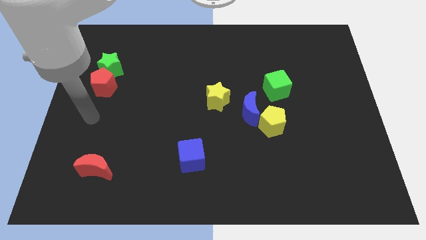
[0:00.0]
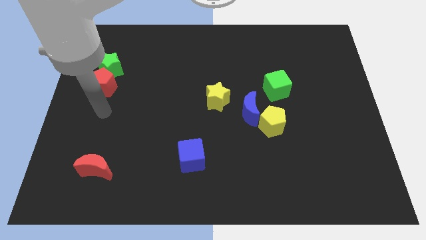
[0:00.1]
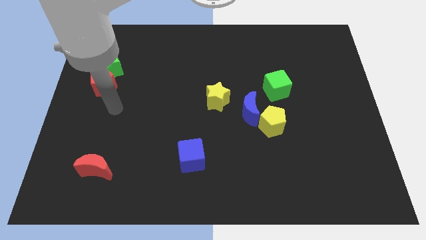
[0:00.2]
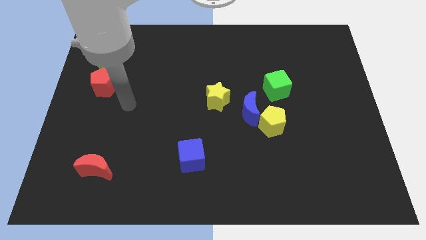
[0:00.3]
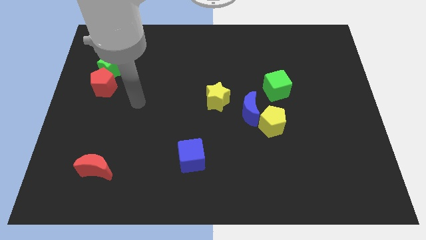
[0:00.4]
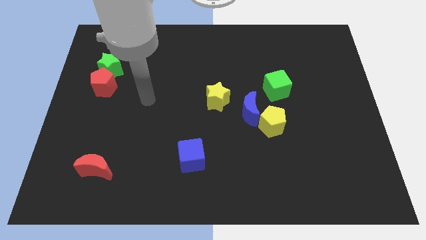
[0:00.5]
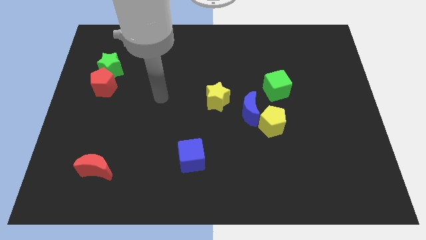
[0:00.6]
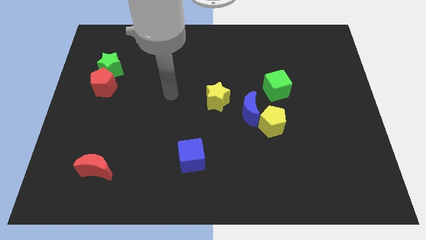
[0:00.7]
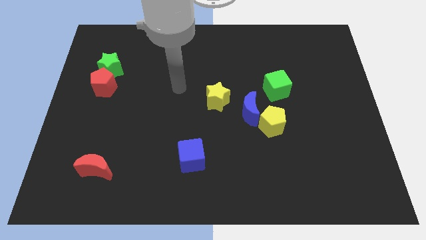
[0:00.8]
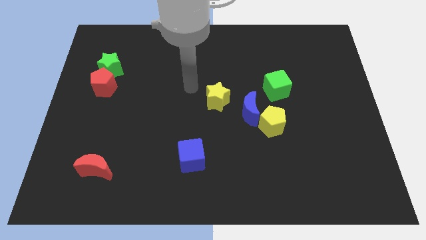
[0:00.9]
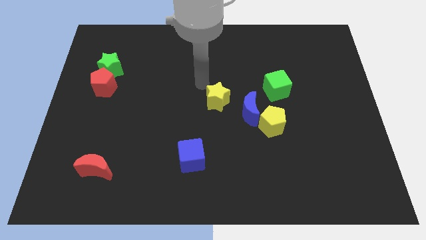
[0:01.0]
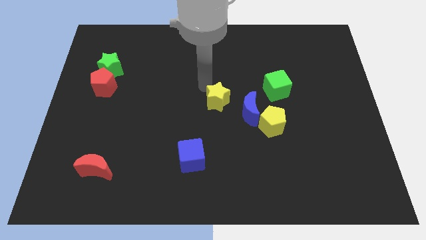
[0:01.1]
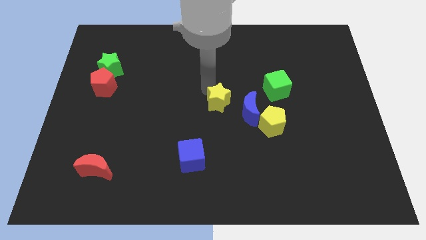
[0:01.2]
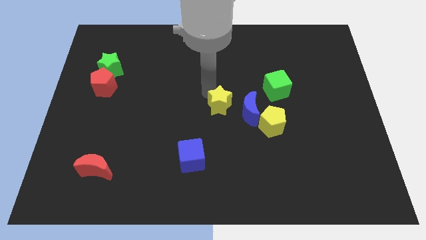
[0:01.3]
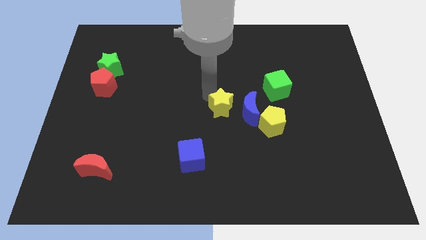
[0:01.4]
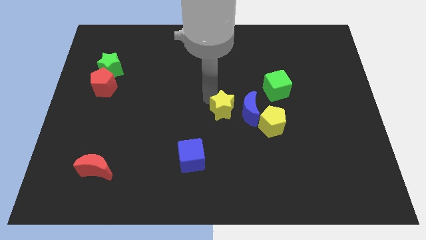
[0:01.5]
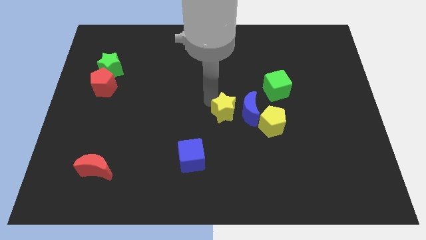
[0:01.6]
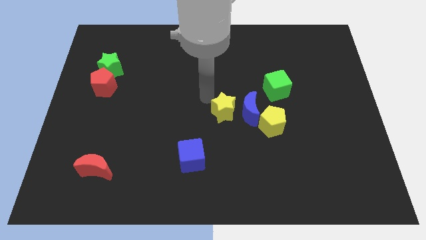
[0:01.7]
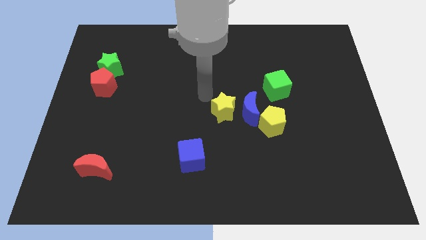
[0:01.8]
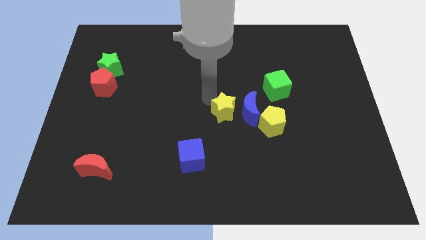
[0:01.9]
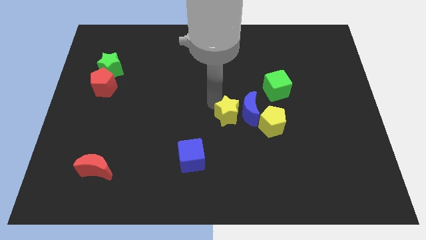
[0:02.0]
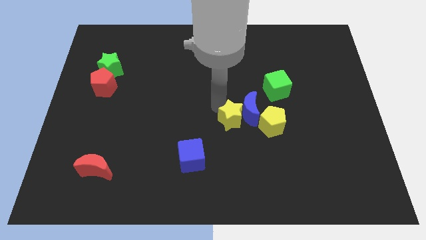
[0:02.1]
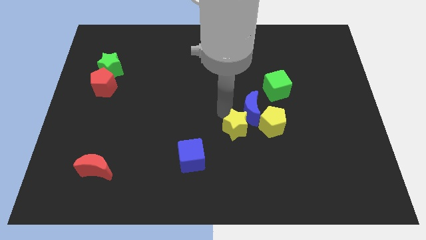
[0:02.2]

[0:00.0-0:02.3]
slightly move the yellow star downwards and to the right

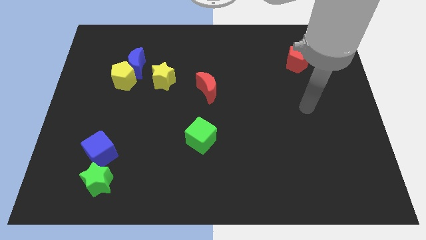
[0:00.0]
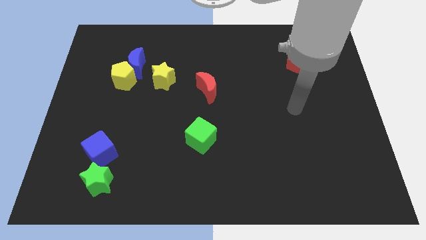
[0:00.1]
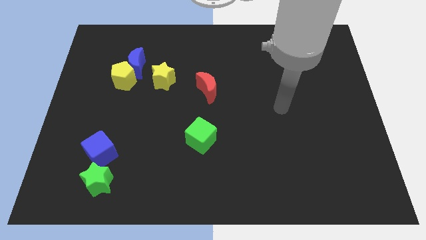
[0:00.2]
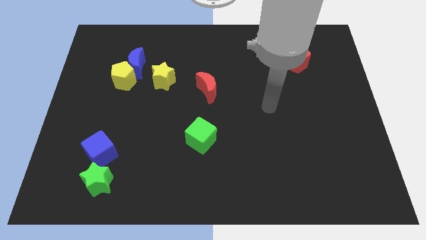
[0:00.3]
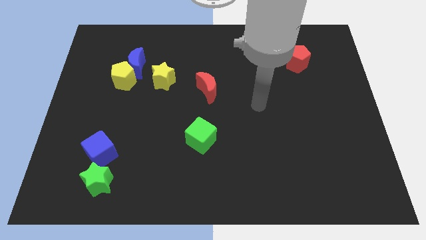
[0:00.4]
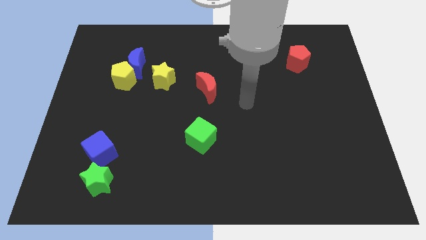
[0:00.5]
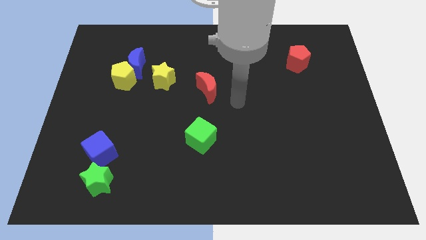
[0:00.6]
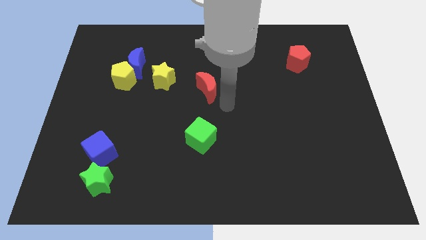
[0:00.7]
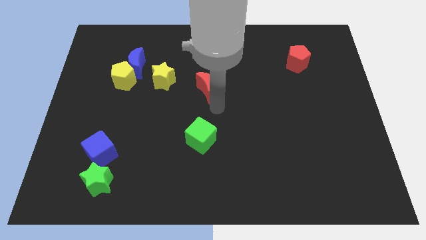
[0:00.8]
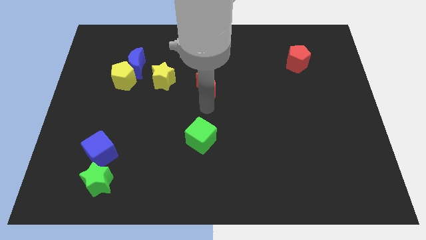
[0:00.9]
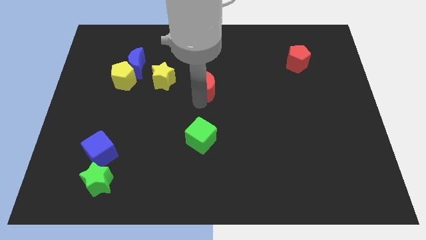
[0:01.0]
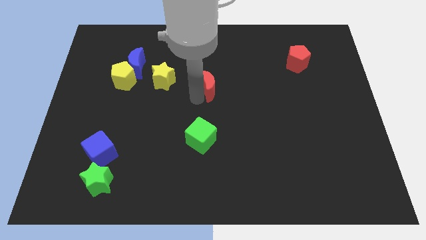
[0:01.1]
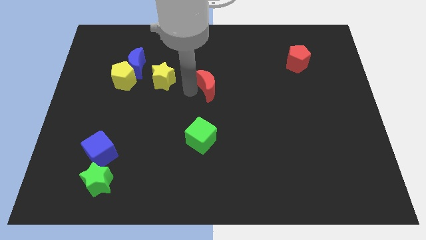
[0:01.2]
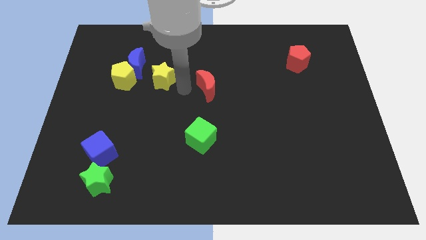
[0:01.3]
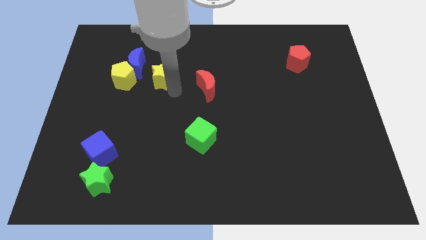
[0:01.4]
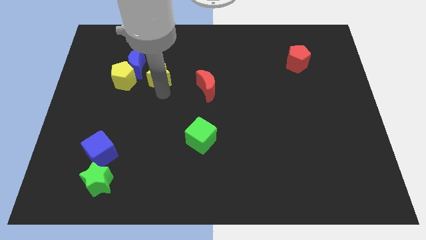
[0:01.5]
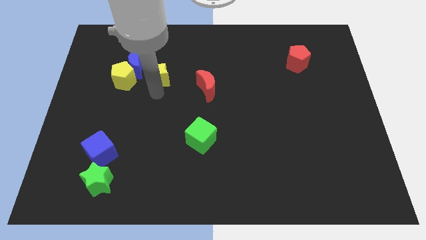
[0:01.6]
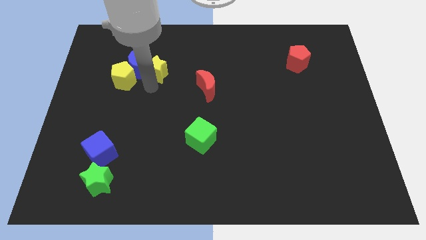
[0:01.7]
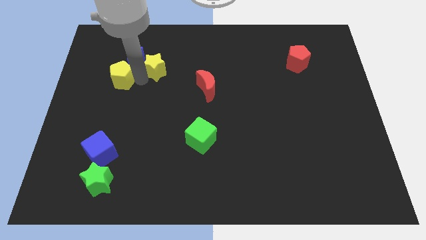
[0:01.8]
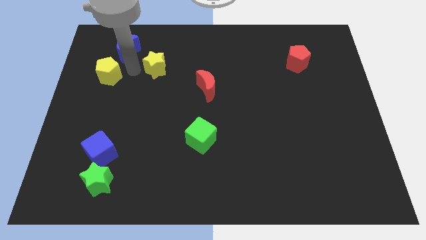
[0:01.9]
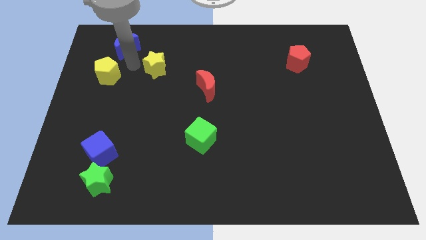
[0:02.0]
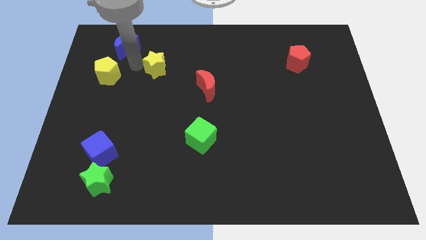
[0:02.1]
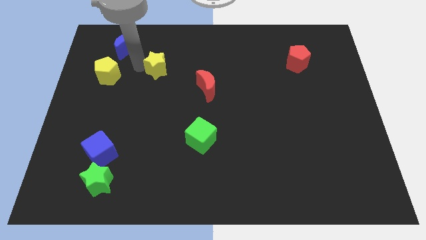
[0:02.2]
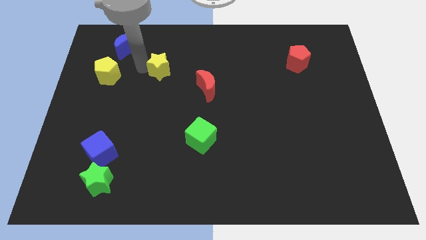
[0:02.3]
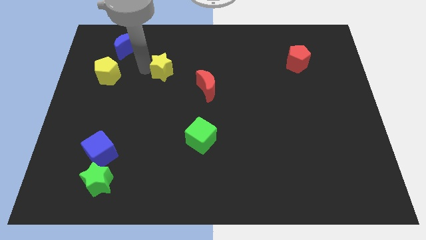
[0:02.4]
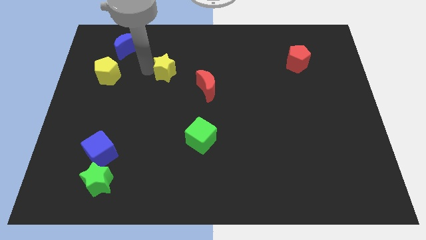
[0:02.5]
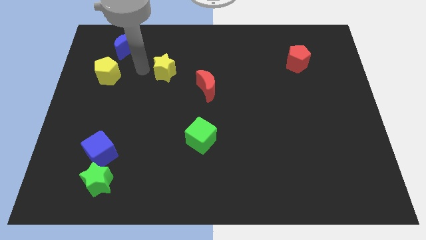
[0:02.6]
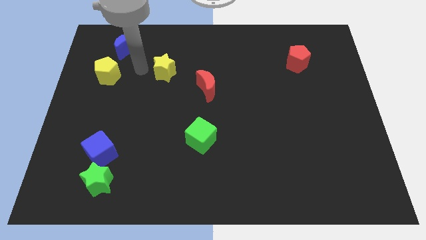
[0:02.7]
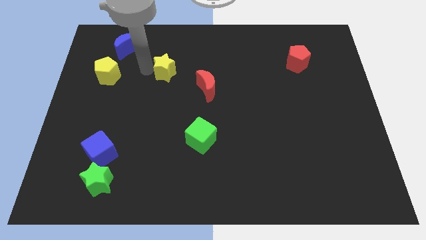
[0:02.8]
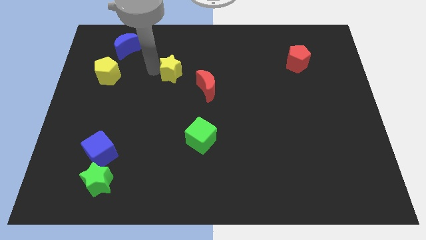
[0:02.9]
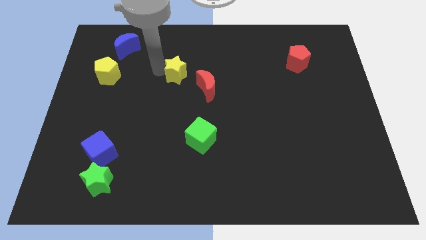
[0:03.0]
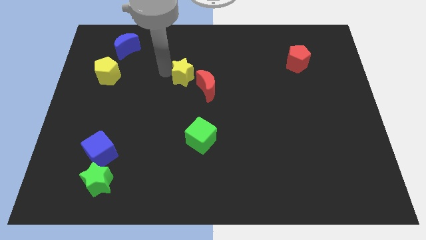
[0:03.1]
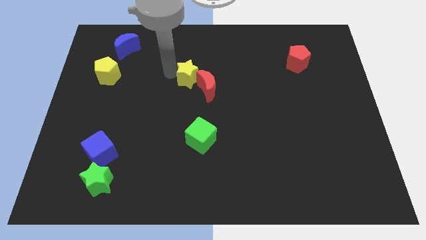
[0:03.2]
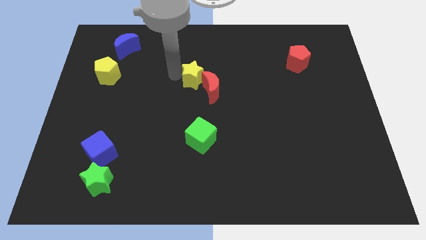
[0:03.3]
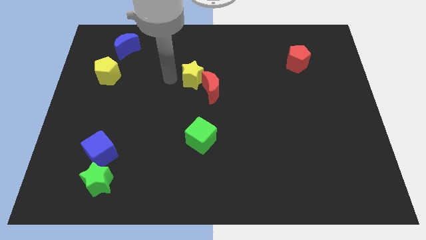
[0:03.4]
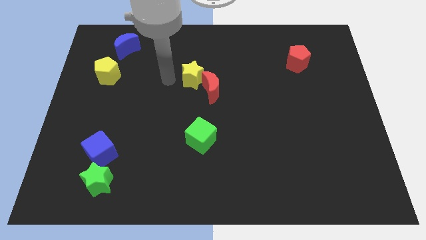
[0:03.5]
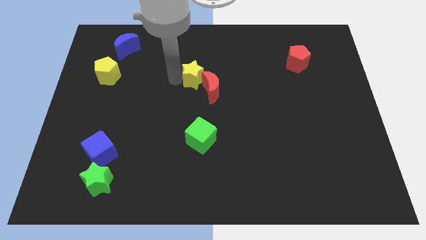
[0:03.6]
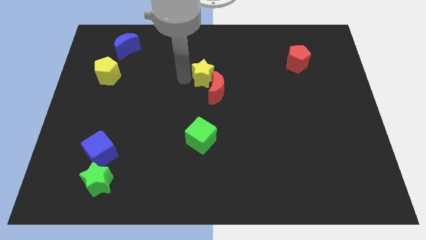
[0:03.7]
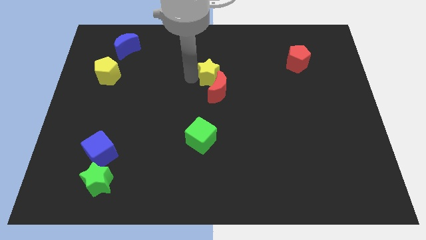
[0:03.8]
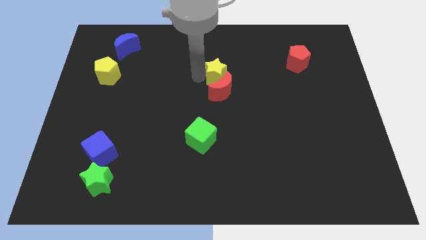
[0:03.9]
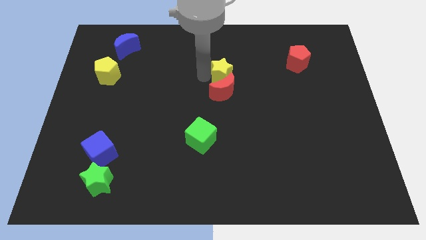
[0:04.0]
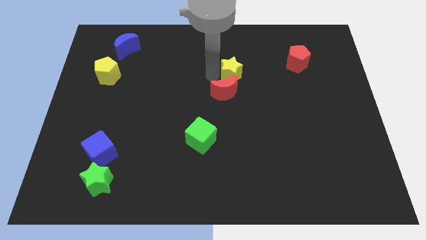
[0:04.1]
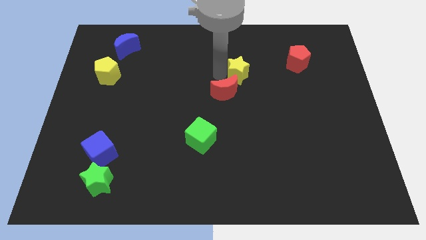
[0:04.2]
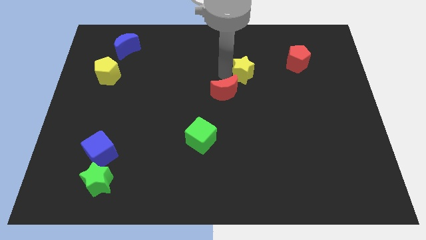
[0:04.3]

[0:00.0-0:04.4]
move the yellow star right

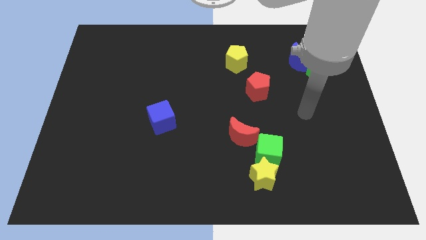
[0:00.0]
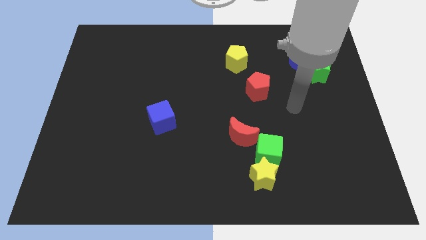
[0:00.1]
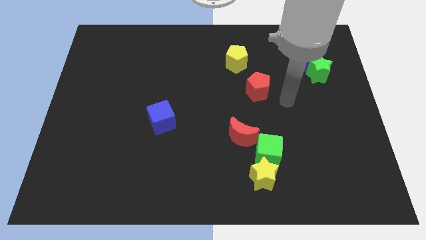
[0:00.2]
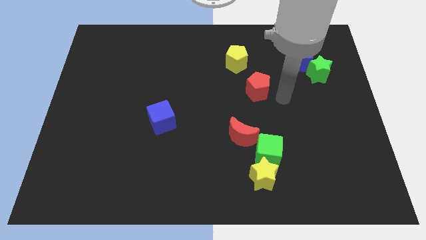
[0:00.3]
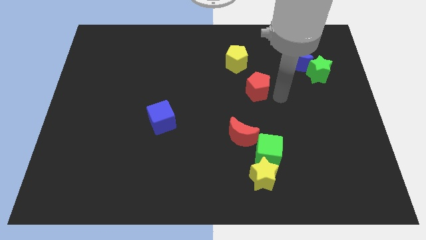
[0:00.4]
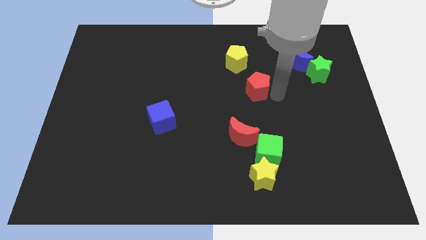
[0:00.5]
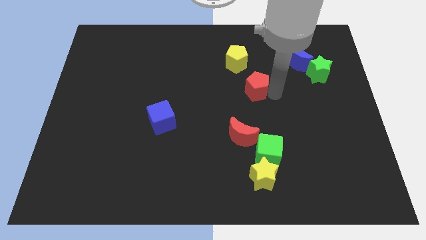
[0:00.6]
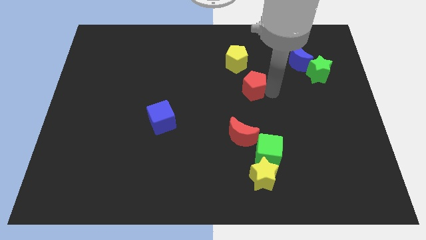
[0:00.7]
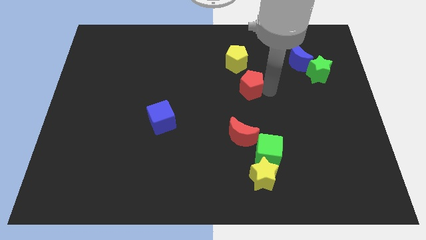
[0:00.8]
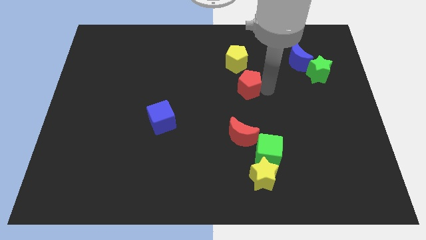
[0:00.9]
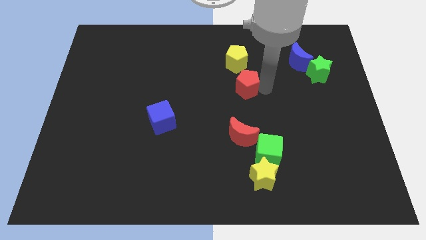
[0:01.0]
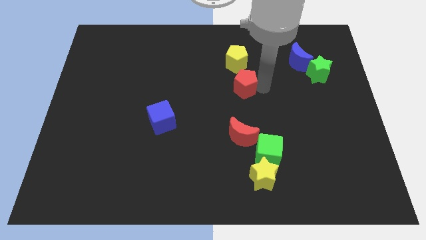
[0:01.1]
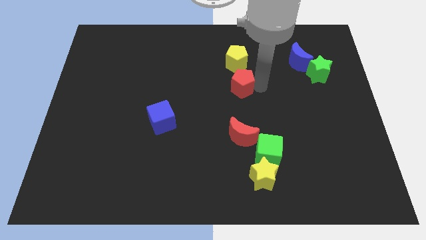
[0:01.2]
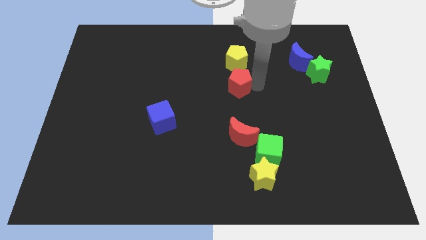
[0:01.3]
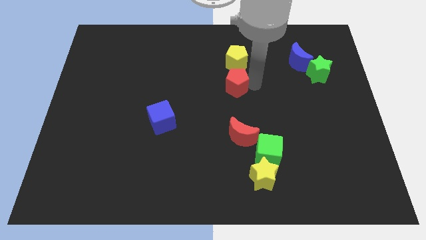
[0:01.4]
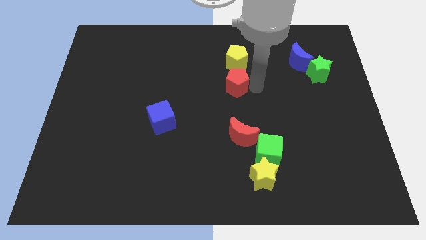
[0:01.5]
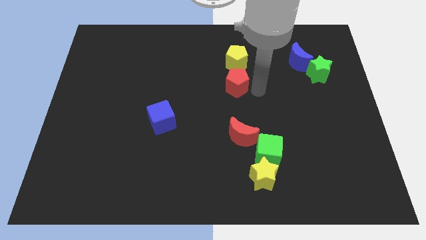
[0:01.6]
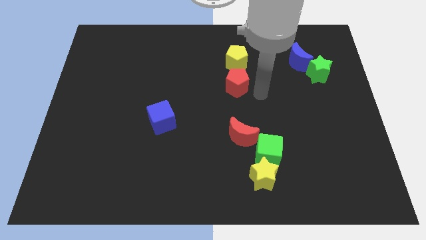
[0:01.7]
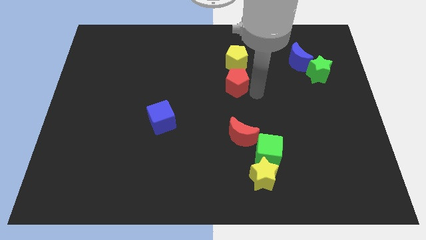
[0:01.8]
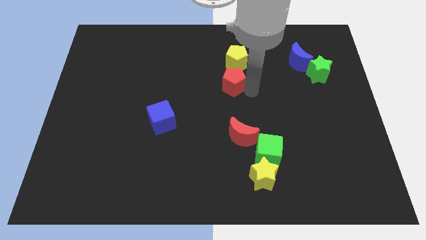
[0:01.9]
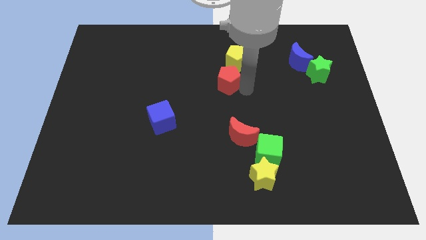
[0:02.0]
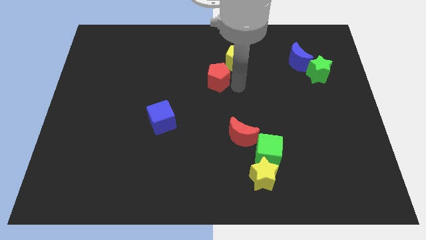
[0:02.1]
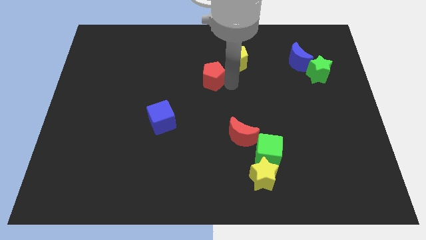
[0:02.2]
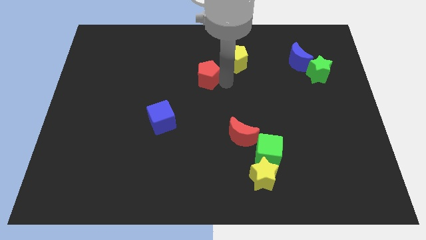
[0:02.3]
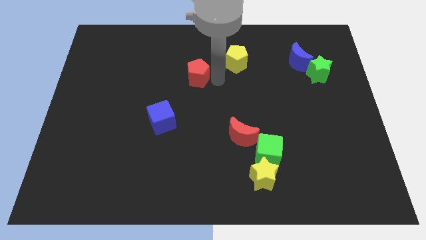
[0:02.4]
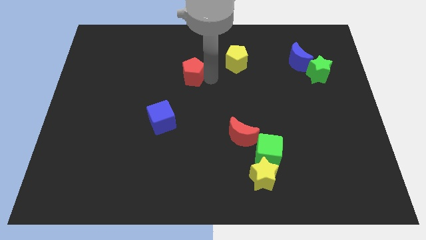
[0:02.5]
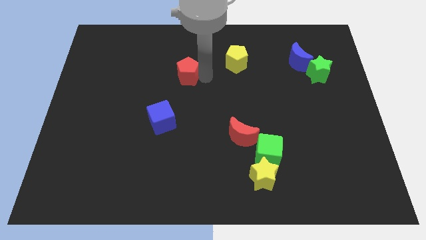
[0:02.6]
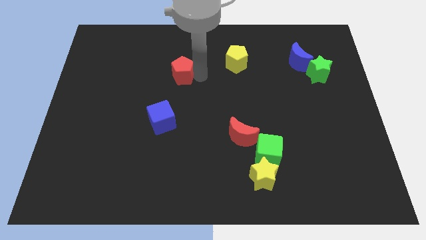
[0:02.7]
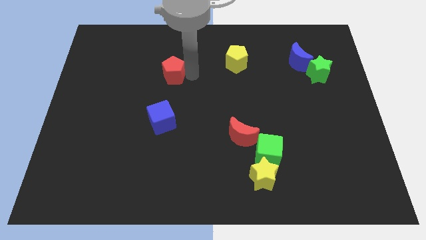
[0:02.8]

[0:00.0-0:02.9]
push the red pentagon left
